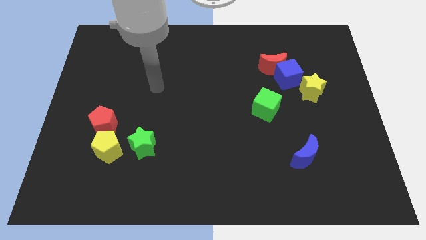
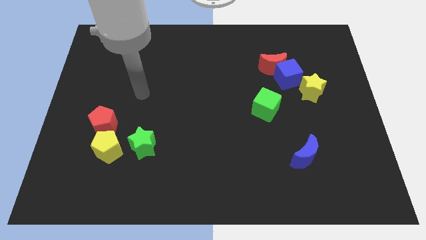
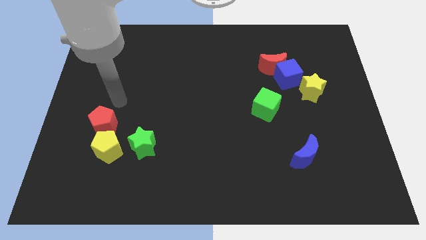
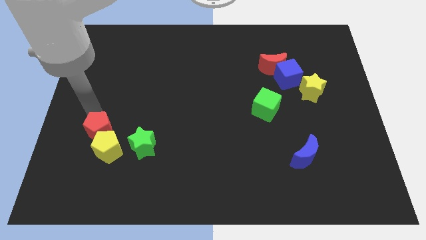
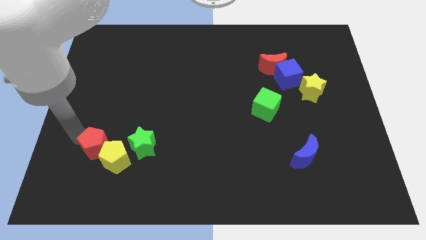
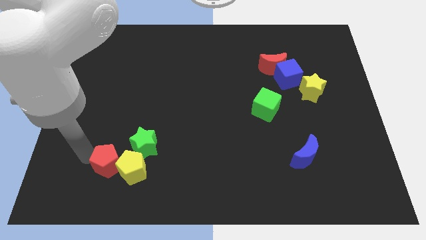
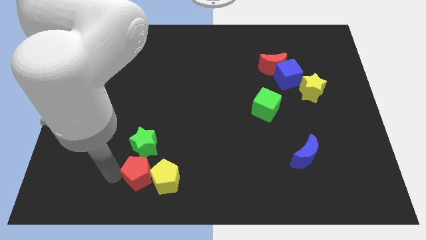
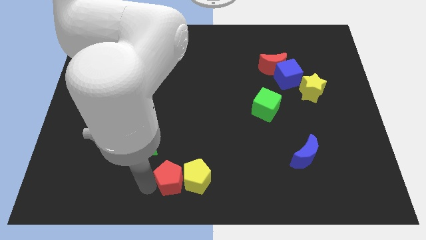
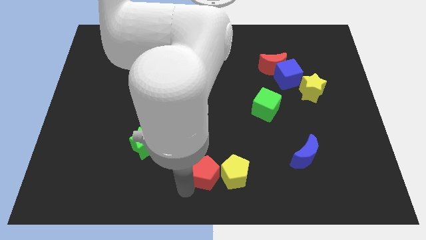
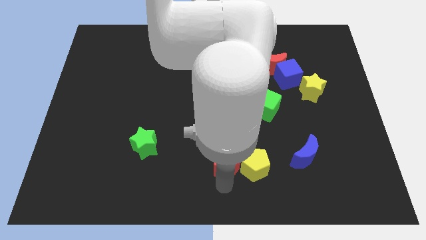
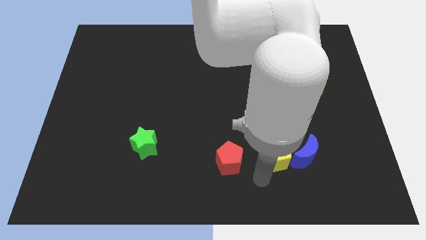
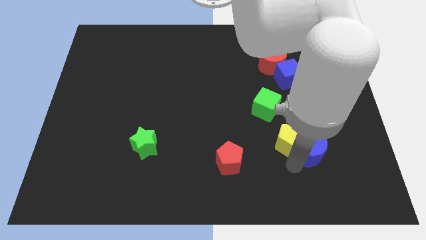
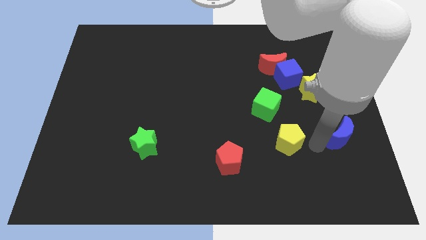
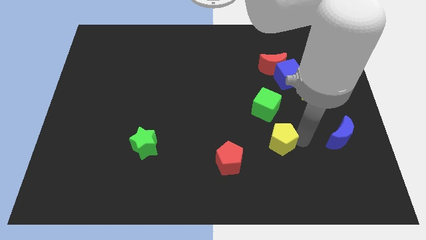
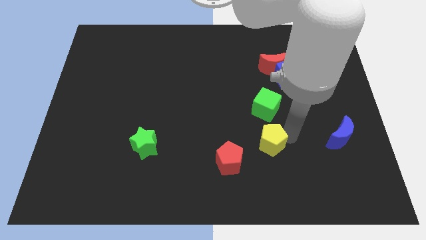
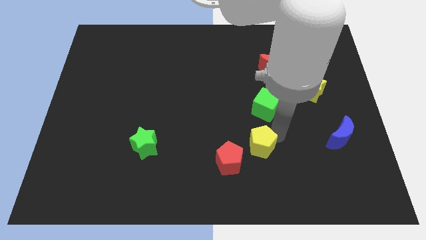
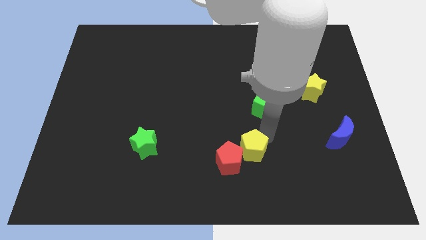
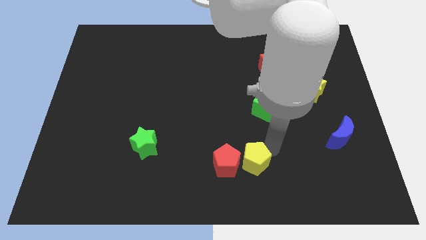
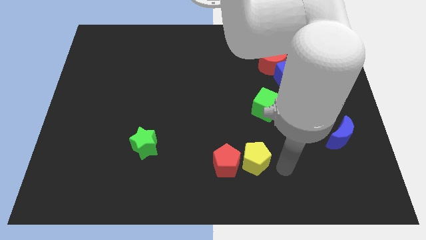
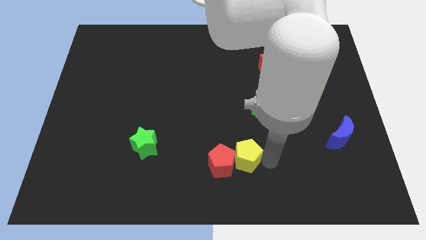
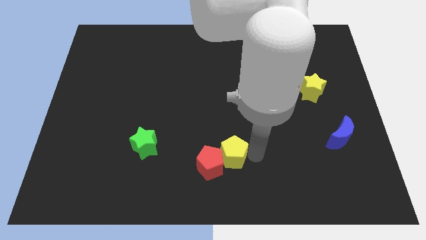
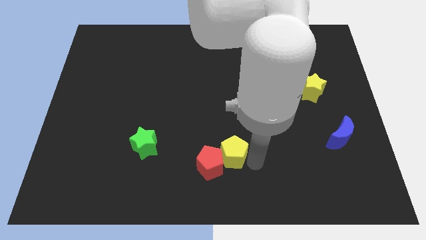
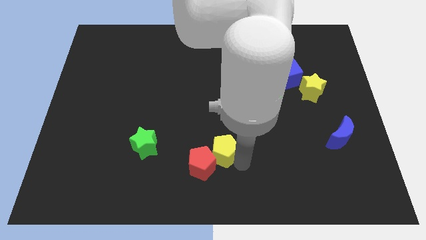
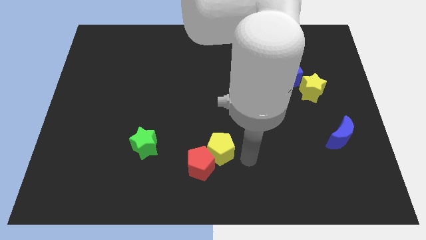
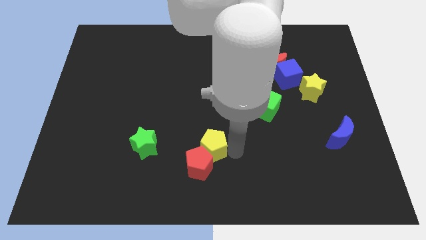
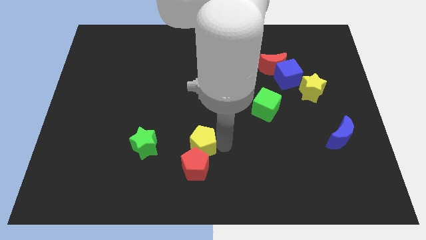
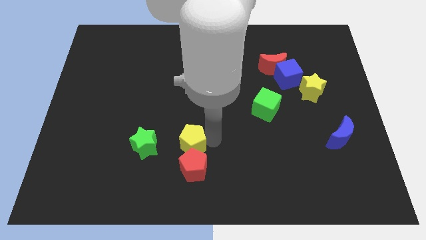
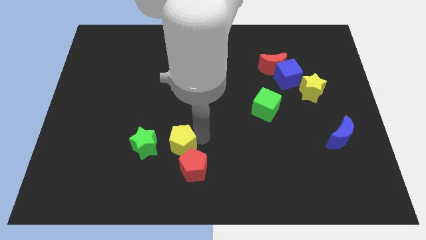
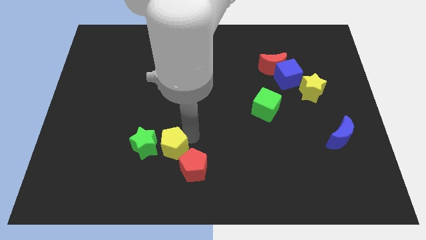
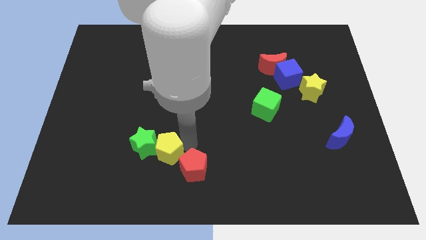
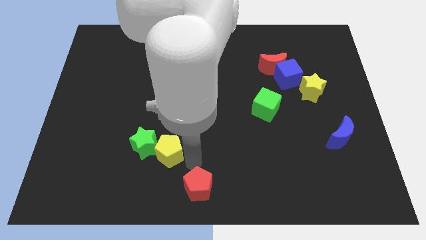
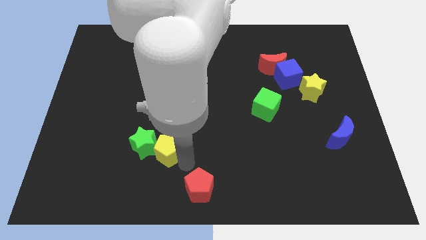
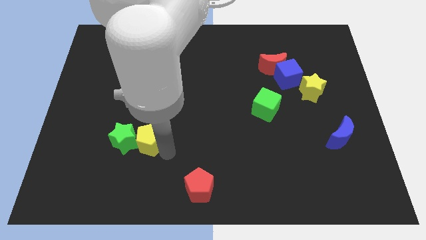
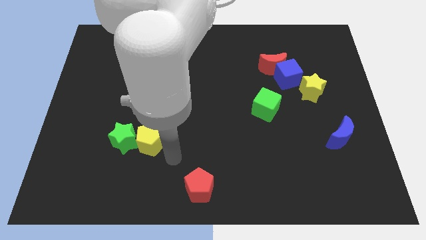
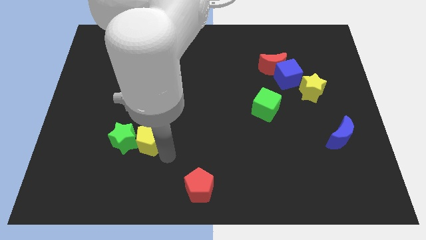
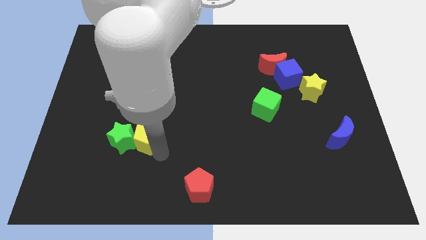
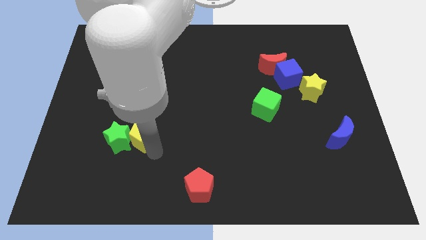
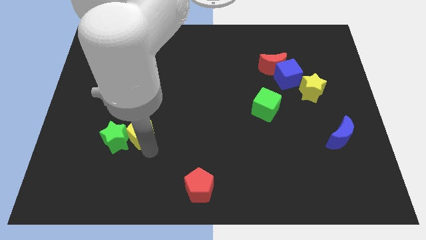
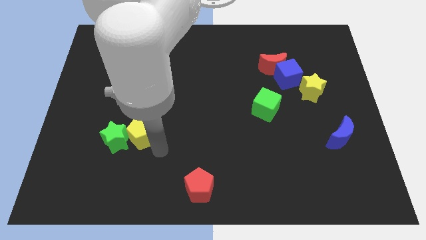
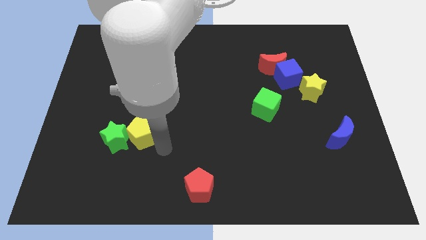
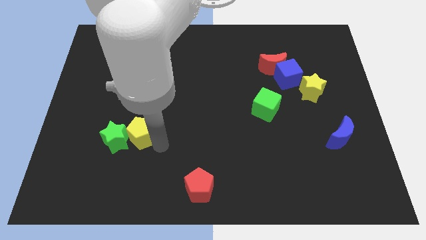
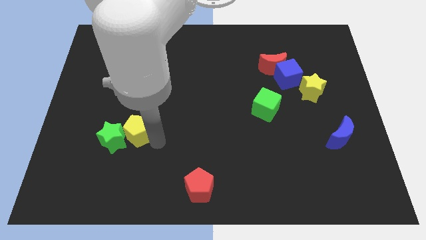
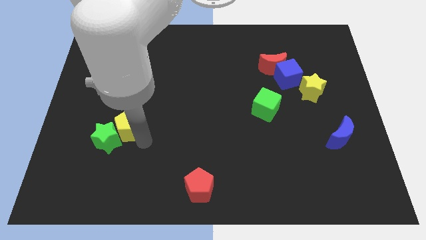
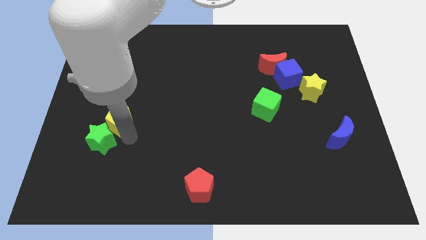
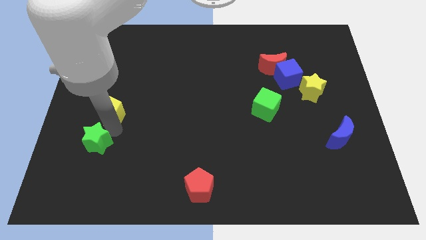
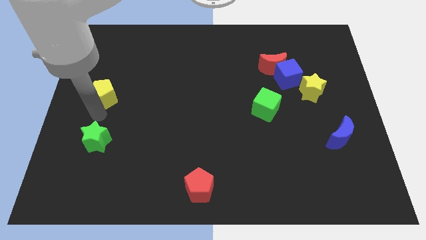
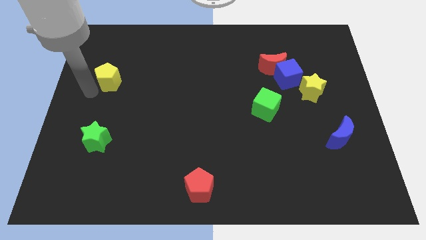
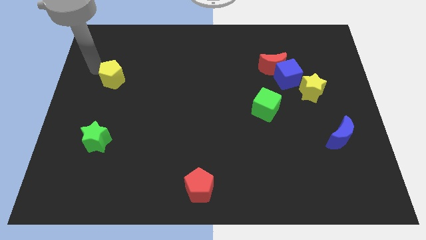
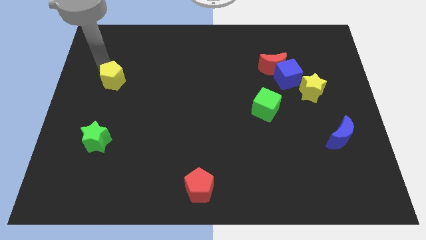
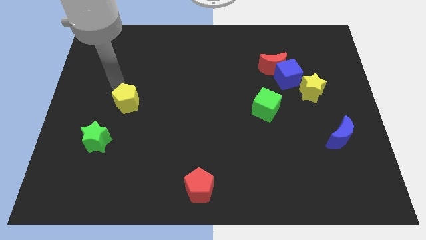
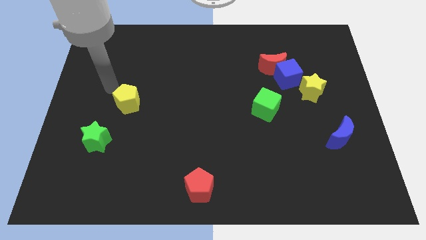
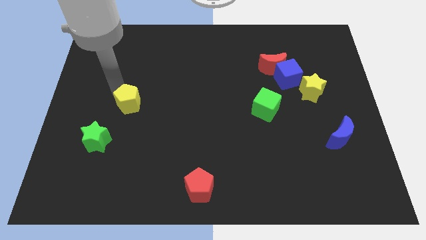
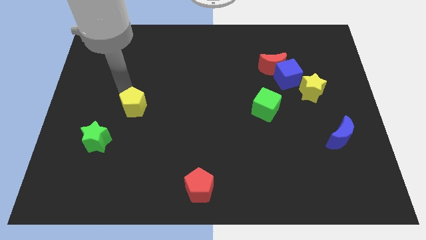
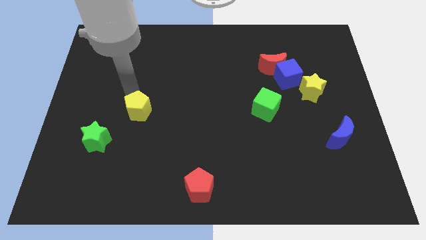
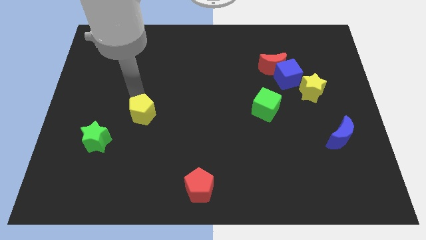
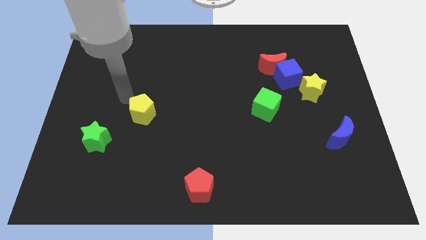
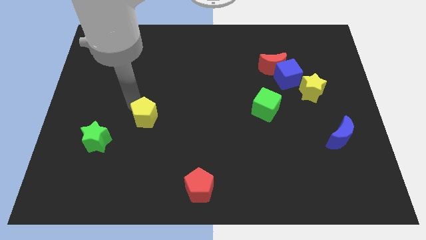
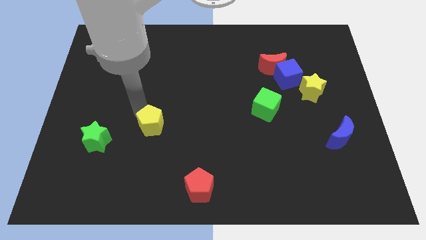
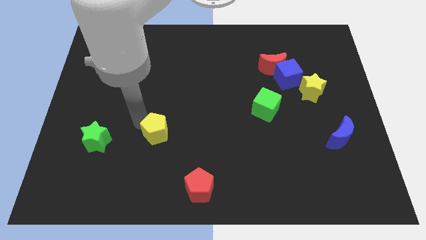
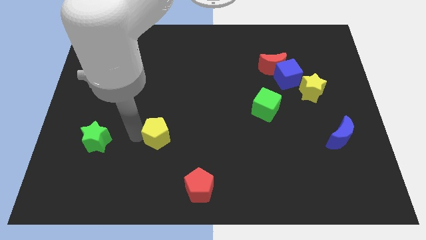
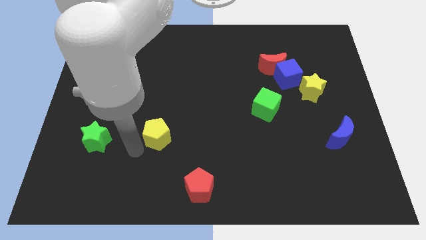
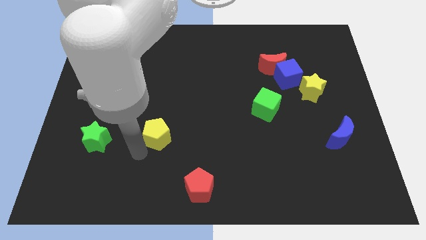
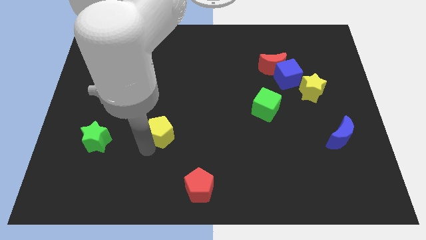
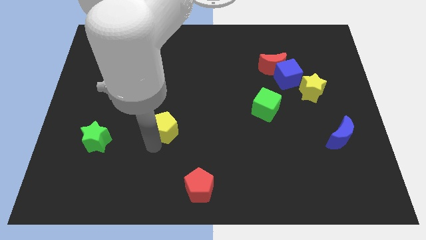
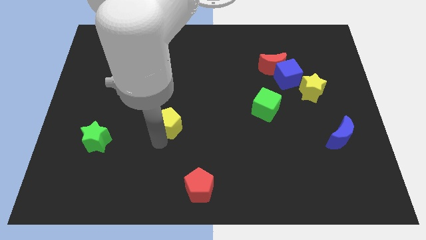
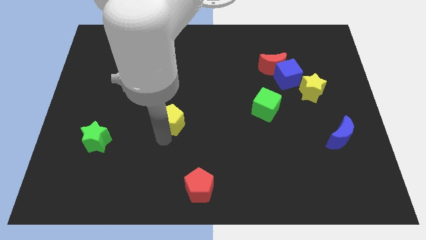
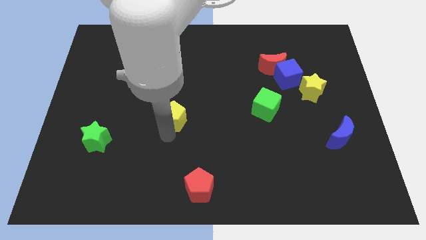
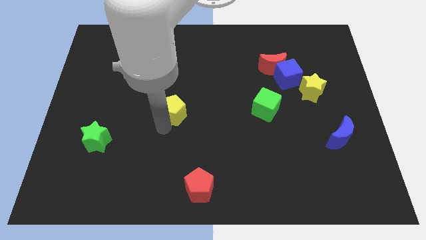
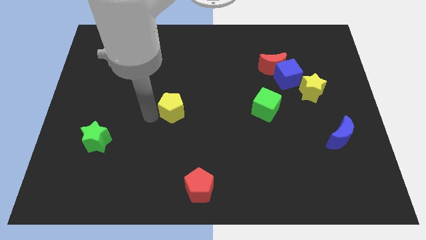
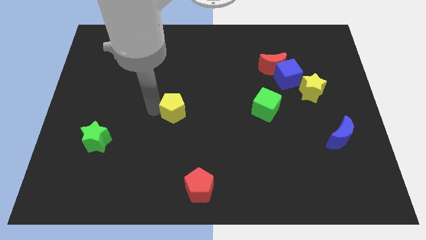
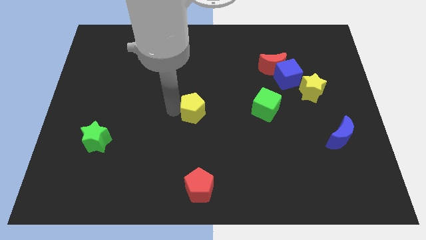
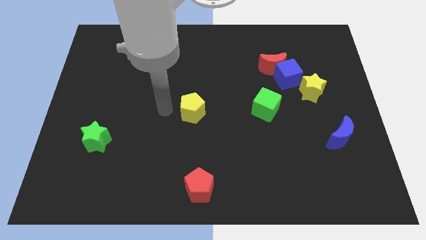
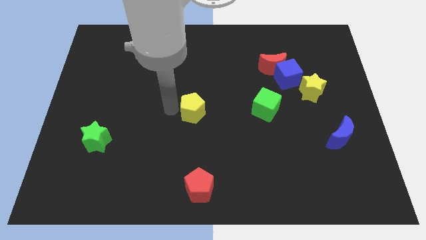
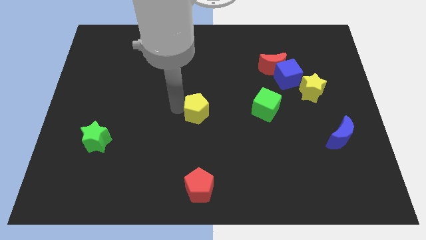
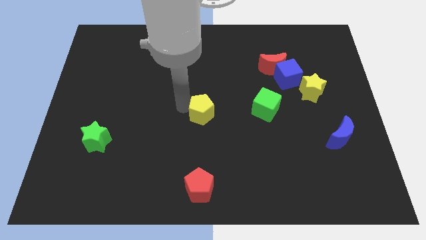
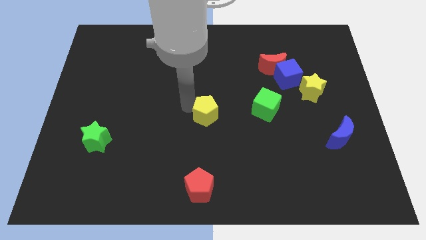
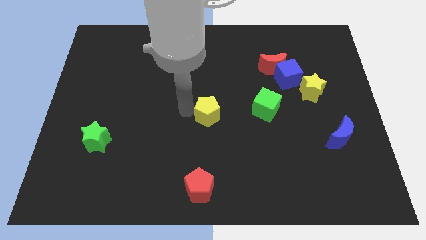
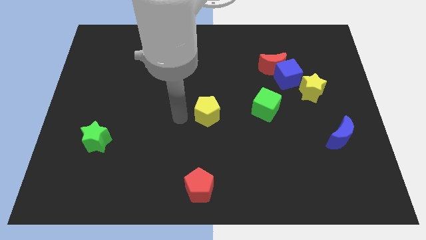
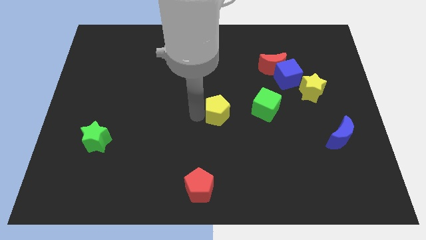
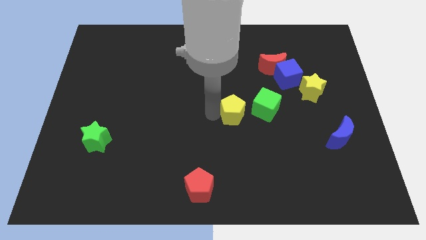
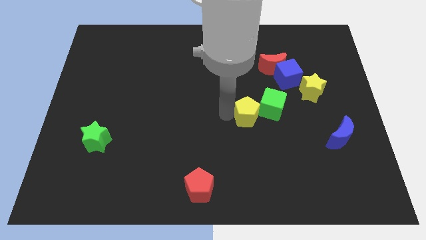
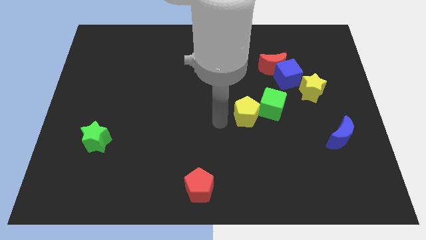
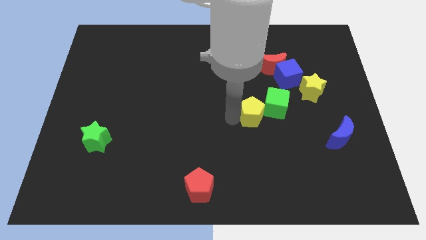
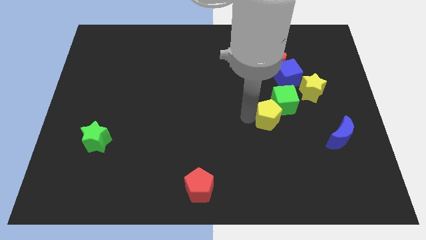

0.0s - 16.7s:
move the yellow pentagon to the green cube
